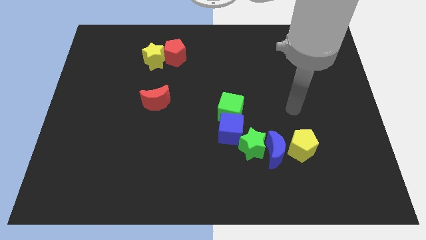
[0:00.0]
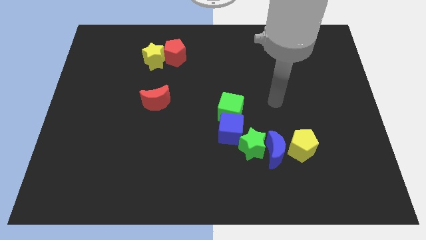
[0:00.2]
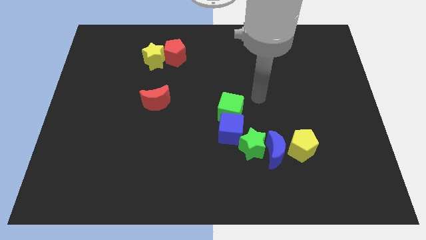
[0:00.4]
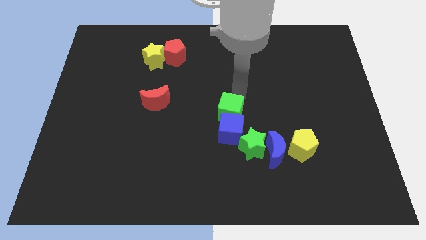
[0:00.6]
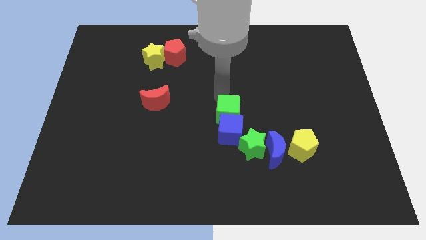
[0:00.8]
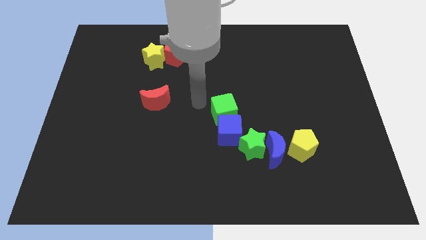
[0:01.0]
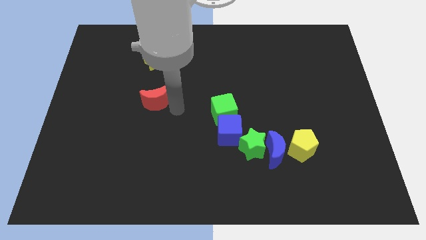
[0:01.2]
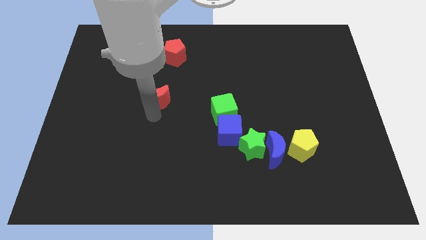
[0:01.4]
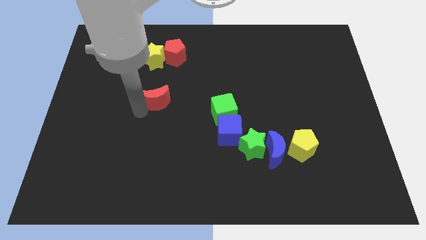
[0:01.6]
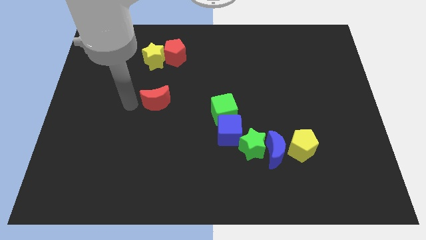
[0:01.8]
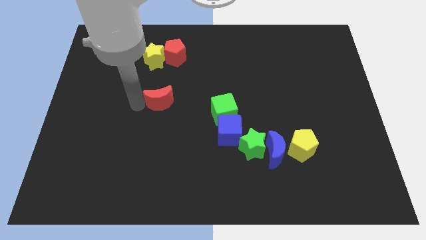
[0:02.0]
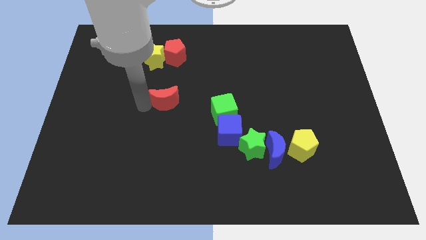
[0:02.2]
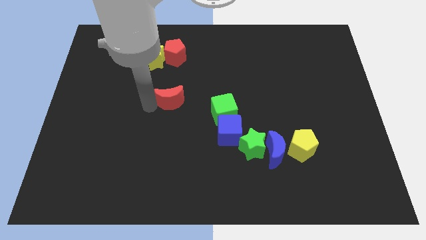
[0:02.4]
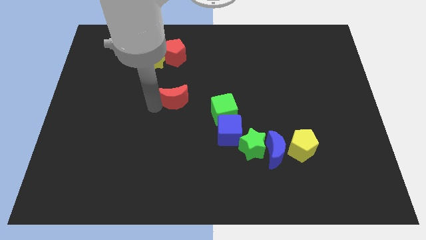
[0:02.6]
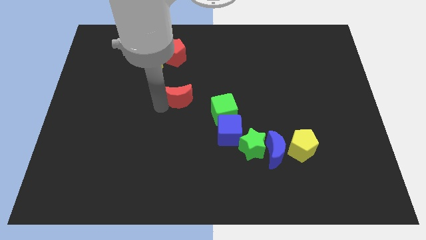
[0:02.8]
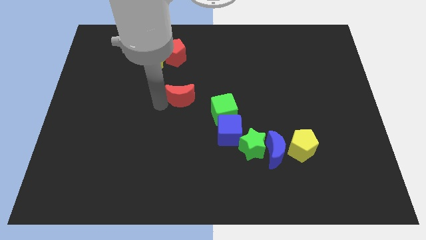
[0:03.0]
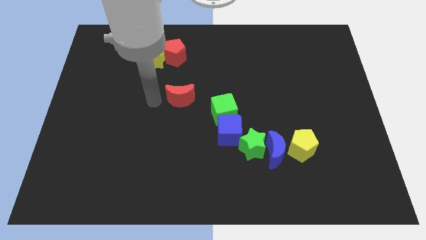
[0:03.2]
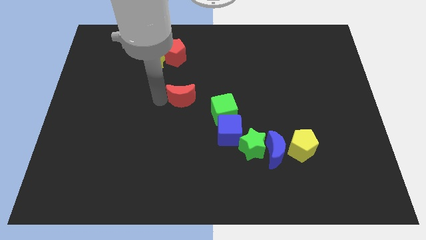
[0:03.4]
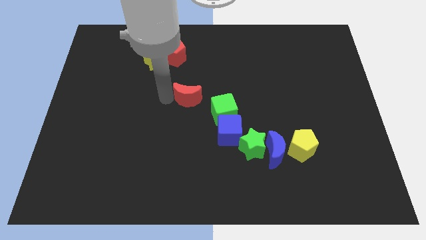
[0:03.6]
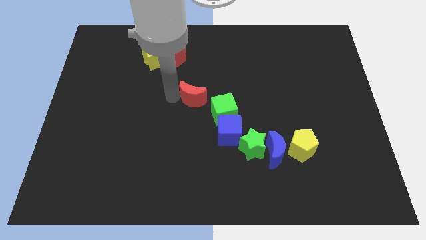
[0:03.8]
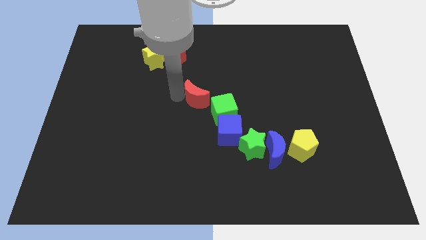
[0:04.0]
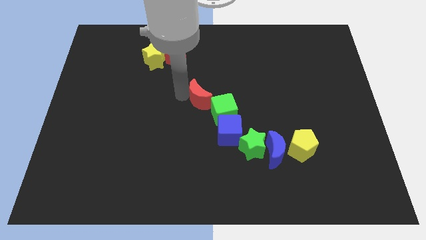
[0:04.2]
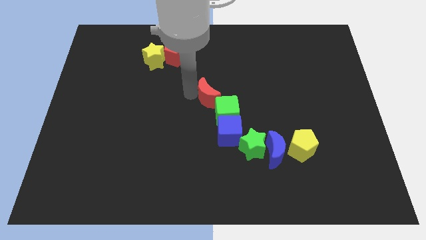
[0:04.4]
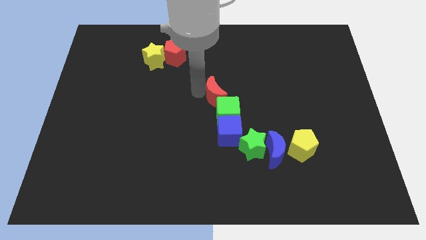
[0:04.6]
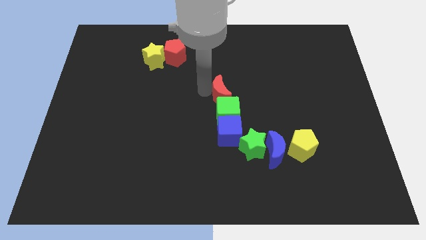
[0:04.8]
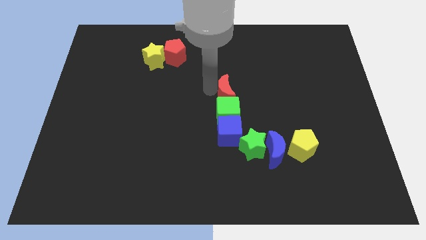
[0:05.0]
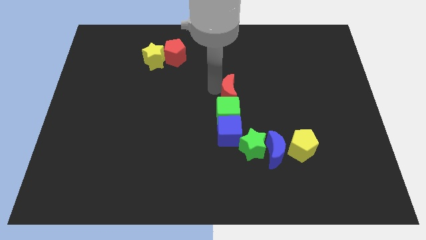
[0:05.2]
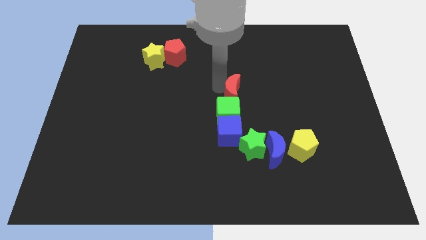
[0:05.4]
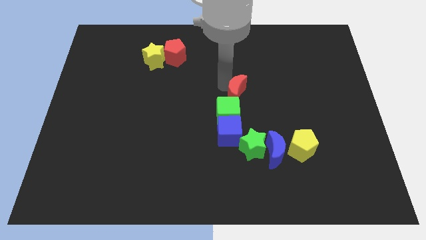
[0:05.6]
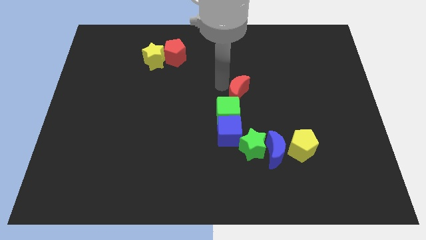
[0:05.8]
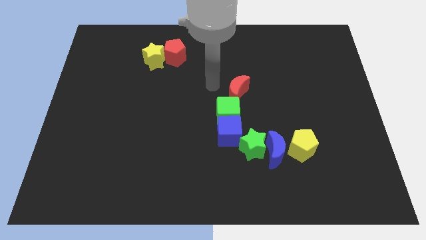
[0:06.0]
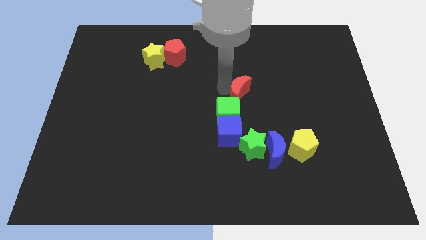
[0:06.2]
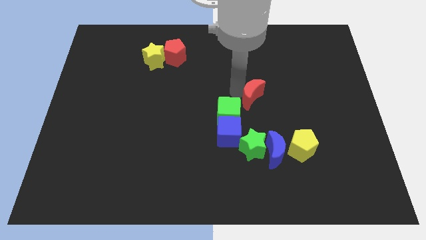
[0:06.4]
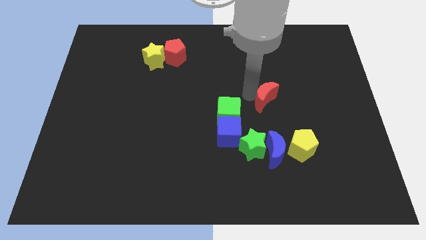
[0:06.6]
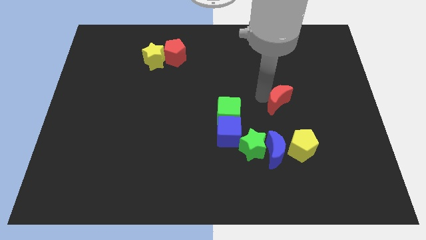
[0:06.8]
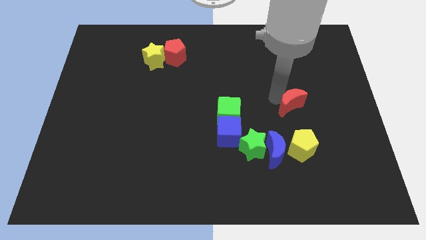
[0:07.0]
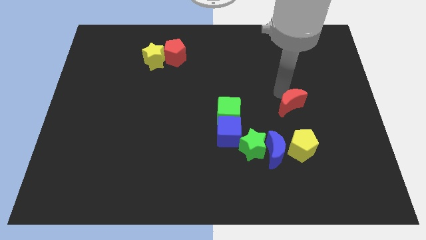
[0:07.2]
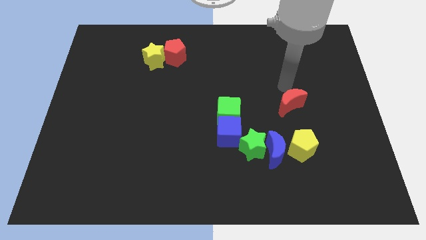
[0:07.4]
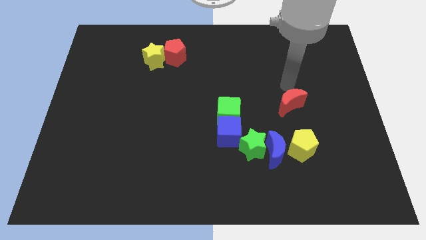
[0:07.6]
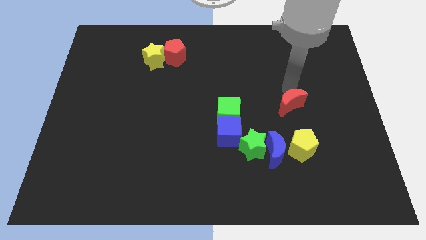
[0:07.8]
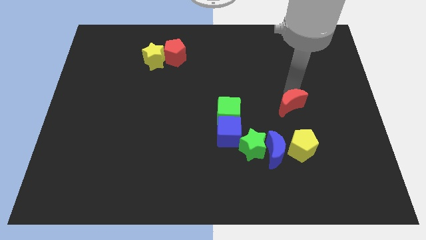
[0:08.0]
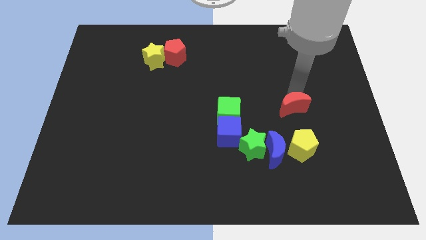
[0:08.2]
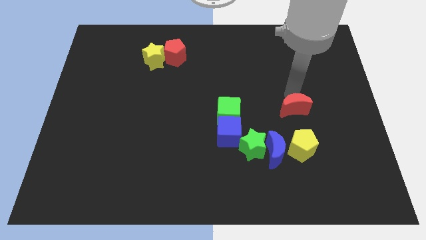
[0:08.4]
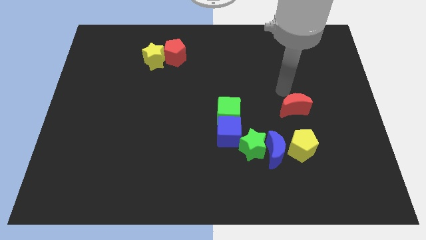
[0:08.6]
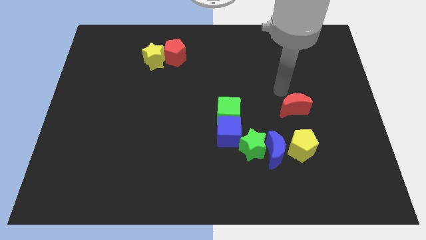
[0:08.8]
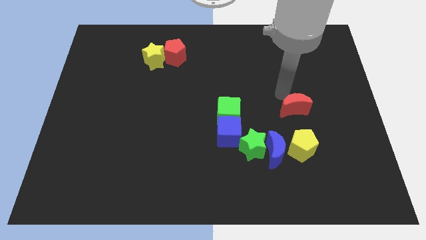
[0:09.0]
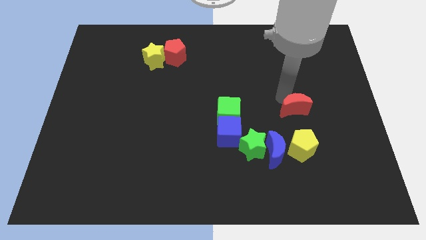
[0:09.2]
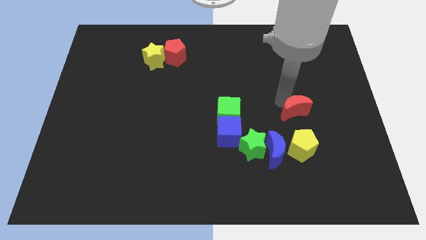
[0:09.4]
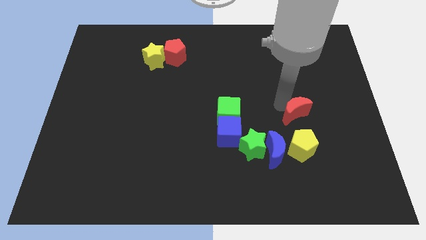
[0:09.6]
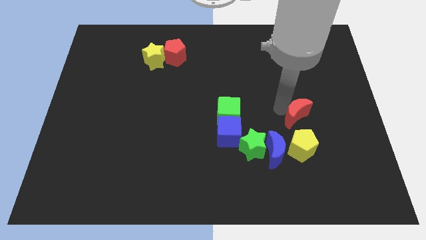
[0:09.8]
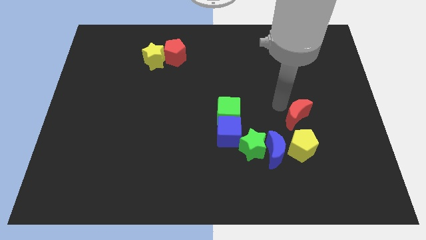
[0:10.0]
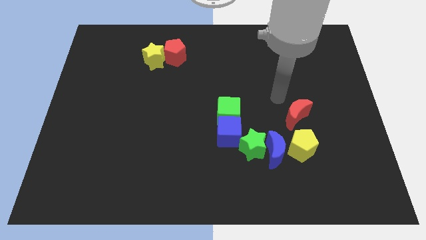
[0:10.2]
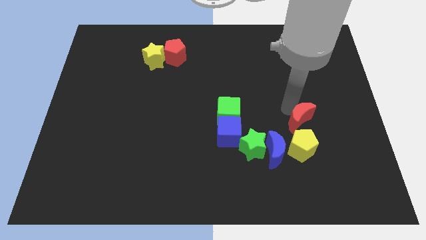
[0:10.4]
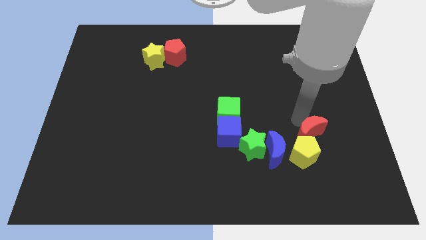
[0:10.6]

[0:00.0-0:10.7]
push the red moon to the right side of the green star

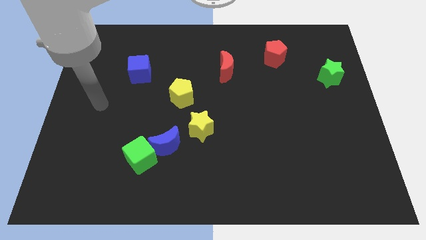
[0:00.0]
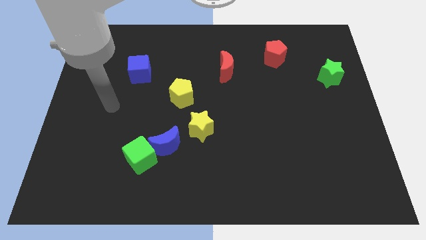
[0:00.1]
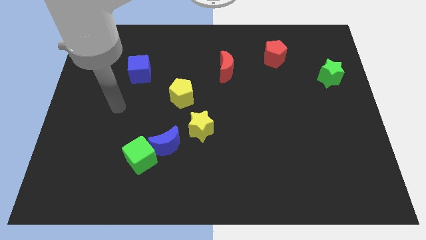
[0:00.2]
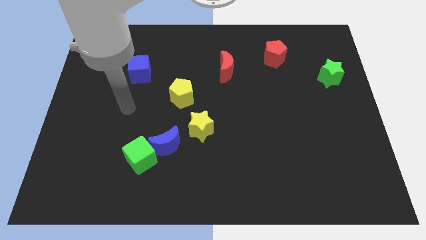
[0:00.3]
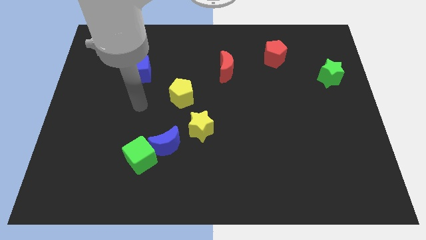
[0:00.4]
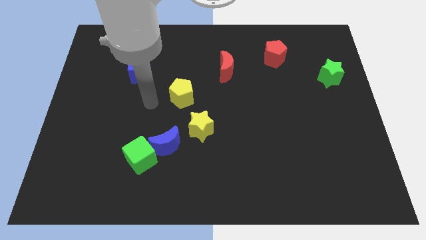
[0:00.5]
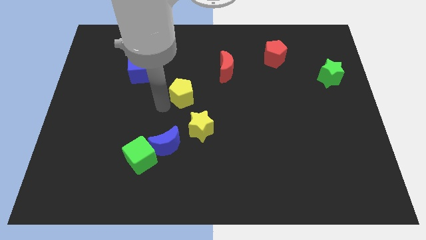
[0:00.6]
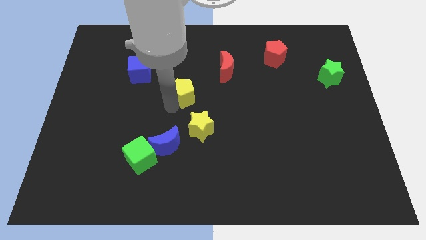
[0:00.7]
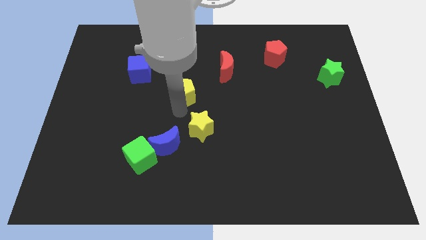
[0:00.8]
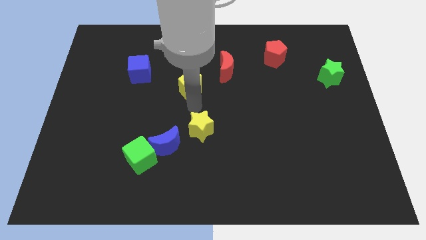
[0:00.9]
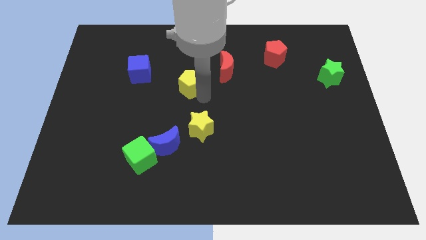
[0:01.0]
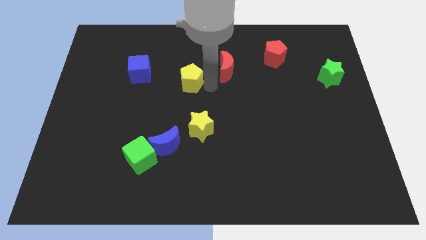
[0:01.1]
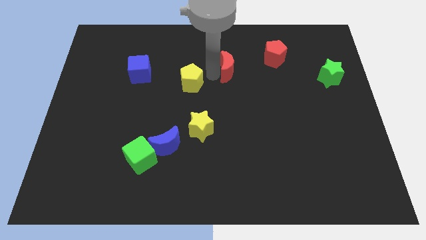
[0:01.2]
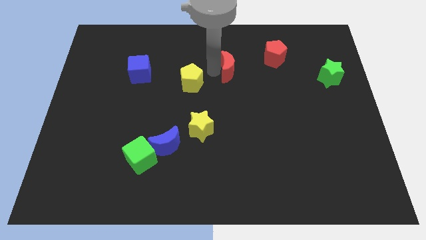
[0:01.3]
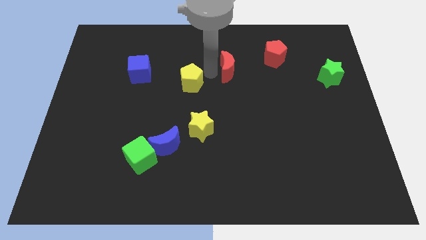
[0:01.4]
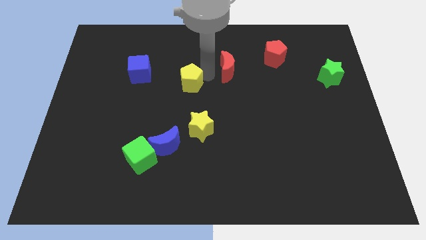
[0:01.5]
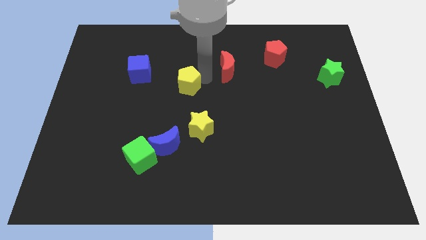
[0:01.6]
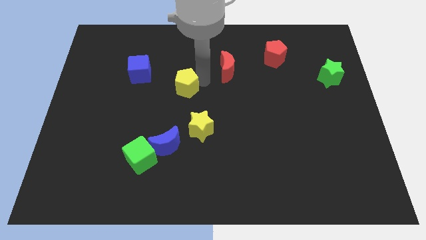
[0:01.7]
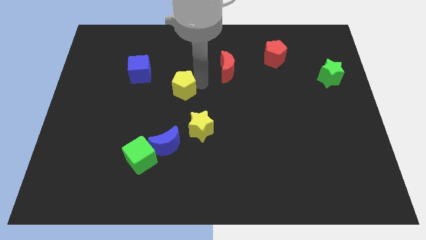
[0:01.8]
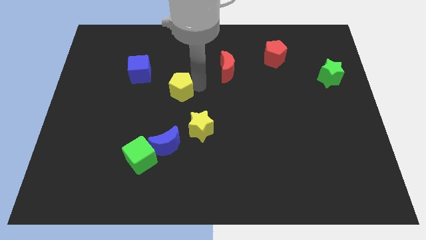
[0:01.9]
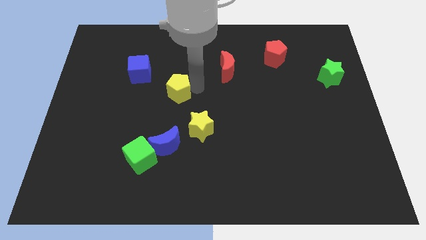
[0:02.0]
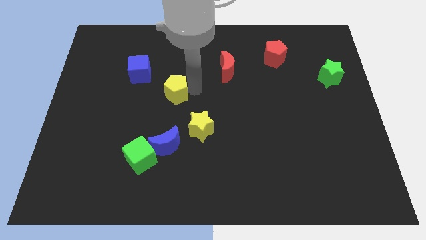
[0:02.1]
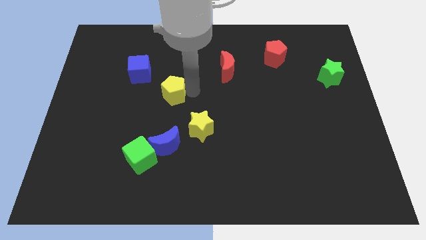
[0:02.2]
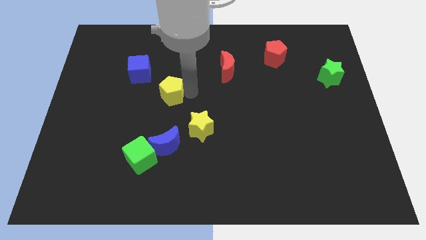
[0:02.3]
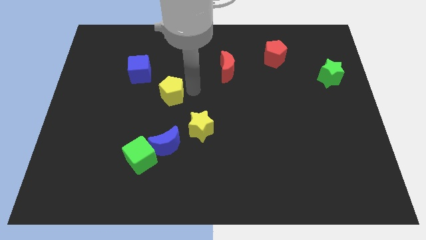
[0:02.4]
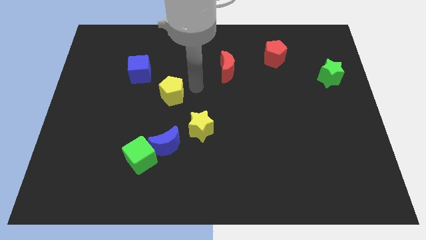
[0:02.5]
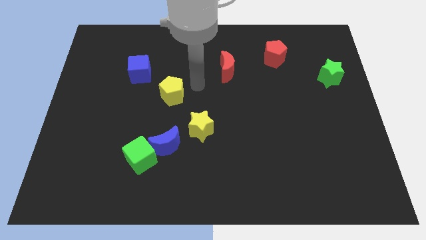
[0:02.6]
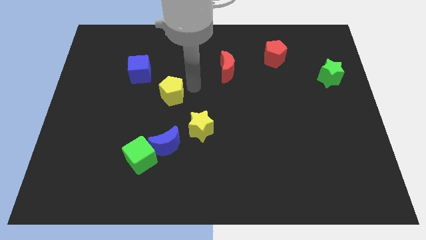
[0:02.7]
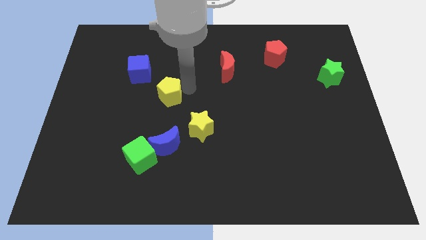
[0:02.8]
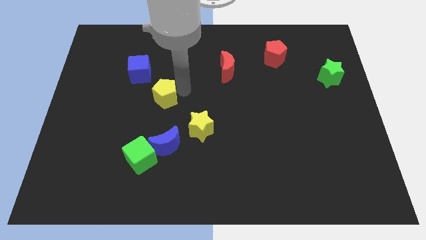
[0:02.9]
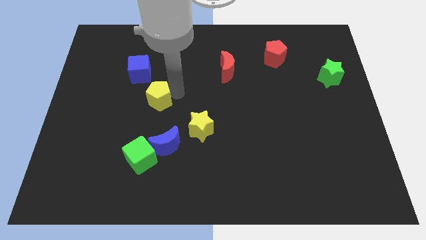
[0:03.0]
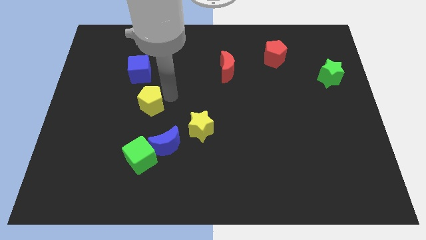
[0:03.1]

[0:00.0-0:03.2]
slide the yellow pentagon to the bottom of the blue cube
